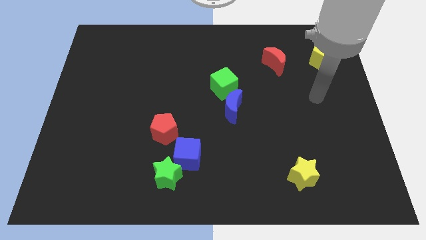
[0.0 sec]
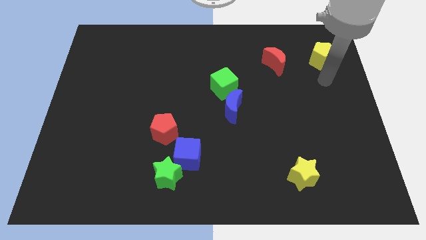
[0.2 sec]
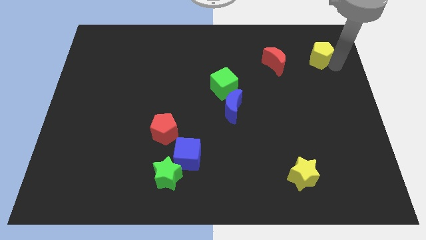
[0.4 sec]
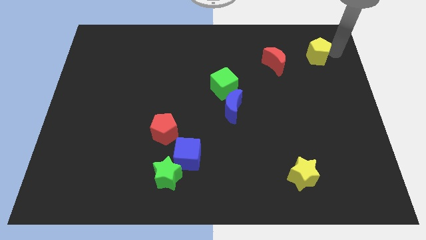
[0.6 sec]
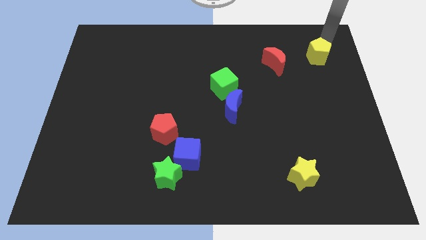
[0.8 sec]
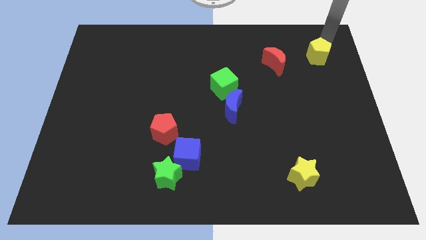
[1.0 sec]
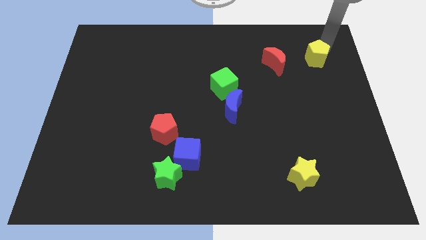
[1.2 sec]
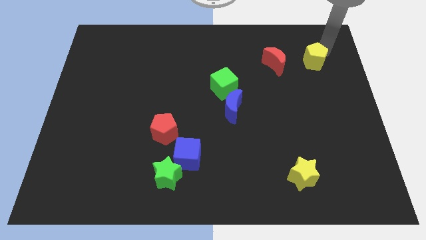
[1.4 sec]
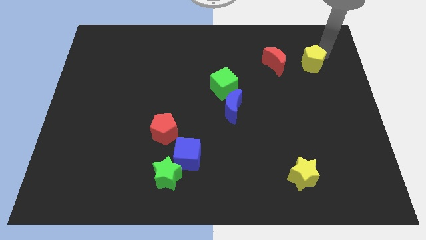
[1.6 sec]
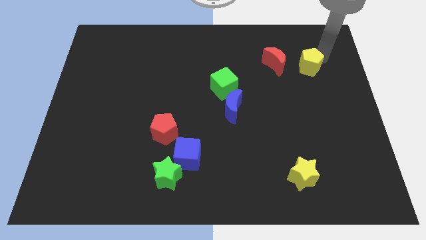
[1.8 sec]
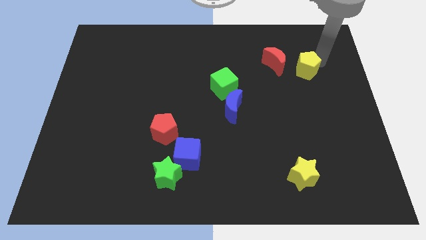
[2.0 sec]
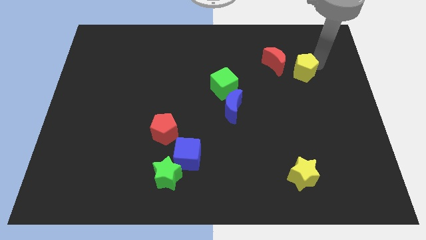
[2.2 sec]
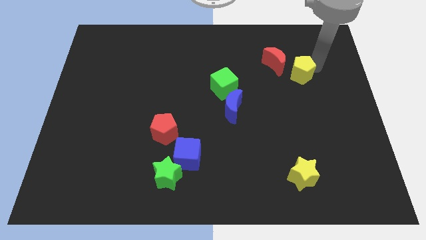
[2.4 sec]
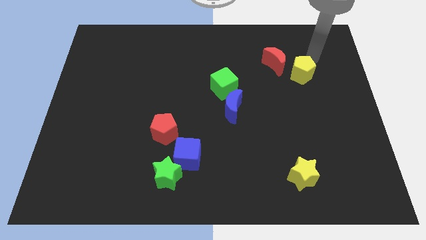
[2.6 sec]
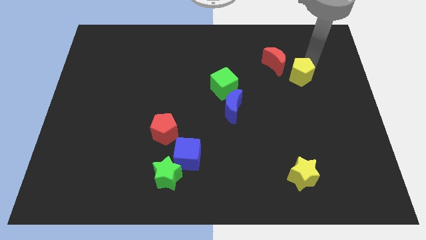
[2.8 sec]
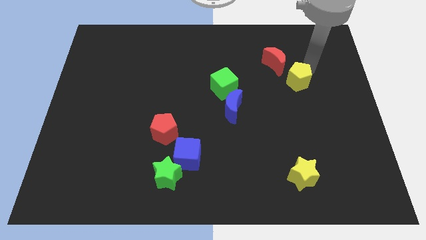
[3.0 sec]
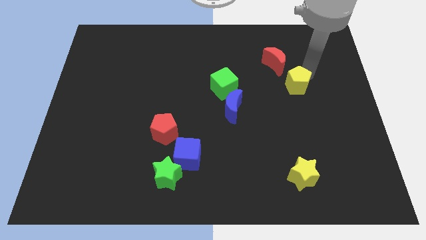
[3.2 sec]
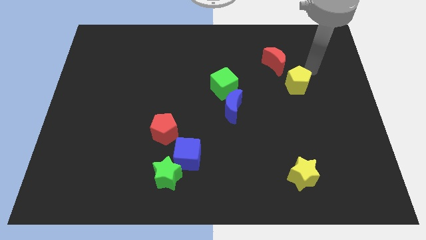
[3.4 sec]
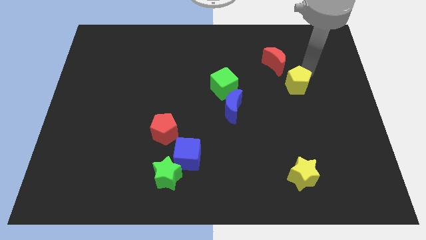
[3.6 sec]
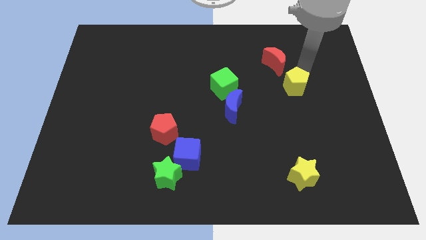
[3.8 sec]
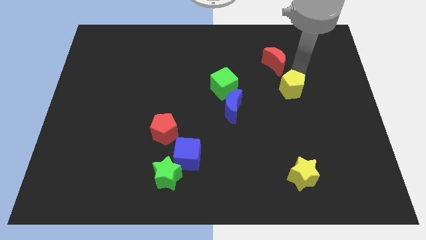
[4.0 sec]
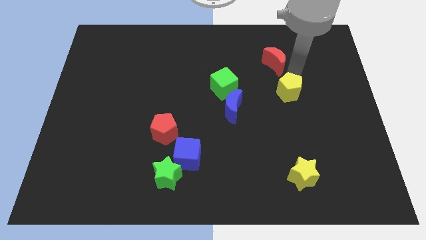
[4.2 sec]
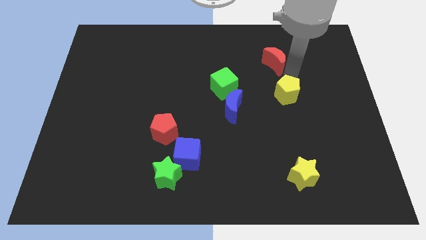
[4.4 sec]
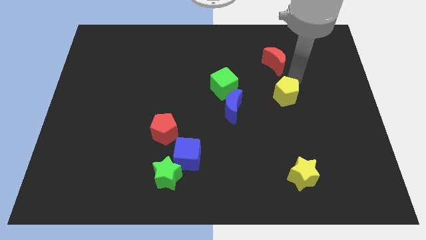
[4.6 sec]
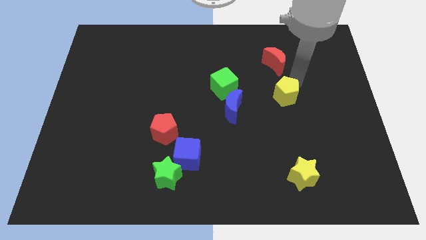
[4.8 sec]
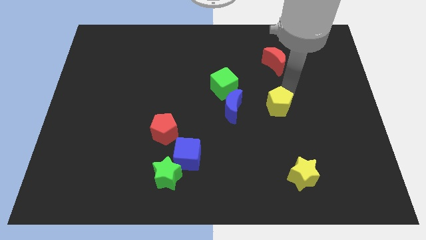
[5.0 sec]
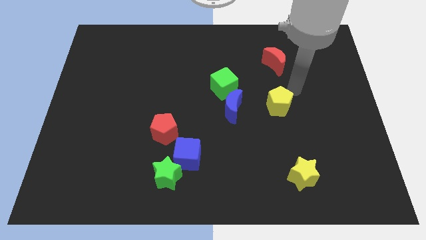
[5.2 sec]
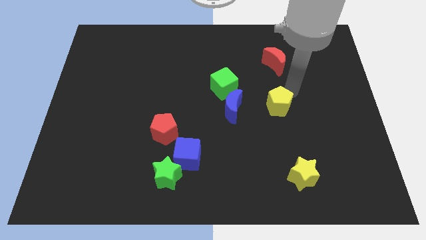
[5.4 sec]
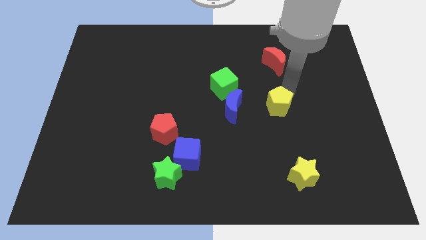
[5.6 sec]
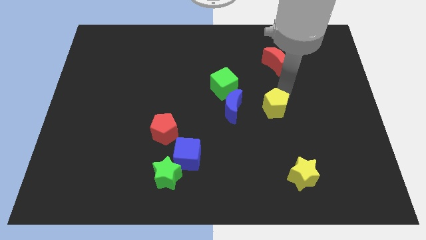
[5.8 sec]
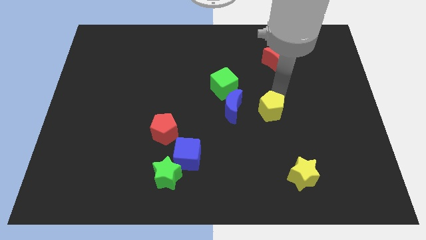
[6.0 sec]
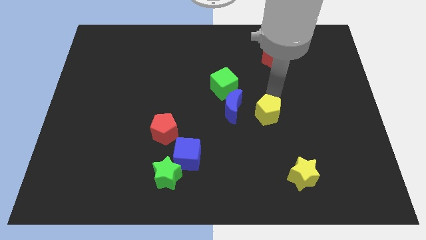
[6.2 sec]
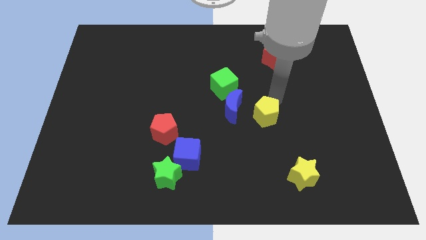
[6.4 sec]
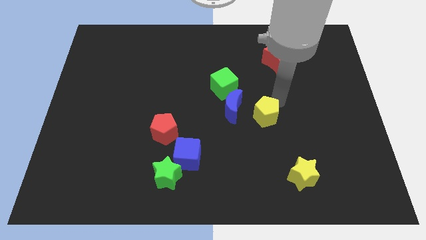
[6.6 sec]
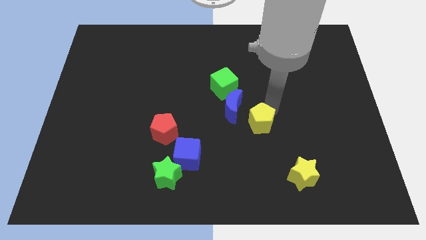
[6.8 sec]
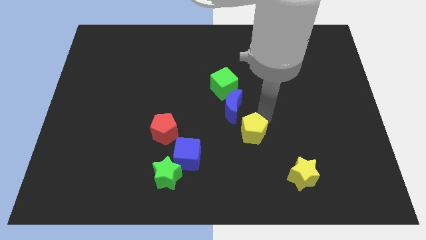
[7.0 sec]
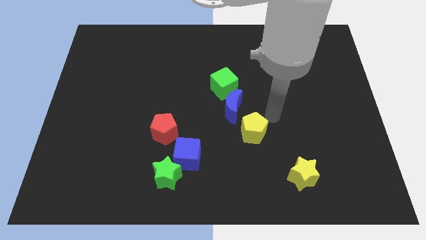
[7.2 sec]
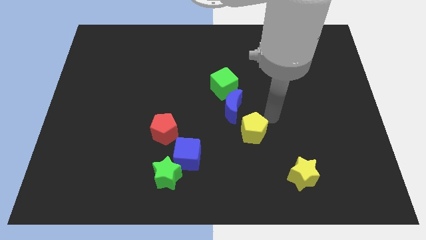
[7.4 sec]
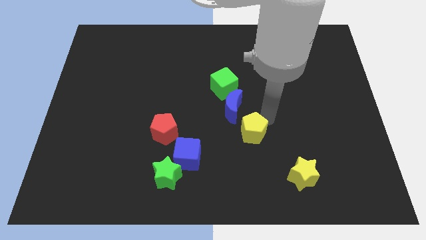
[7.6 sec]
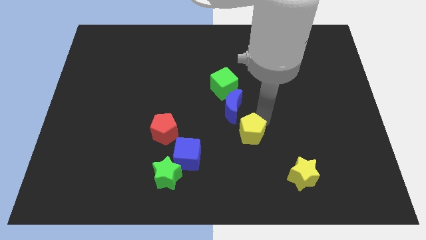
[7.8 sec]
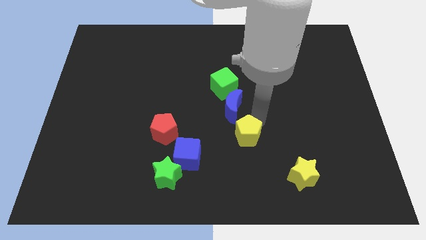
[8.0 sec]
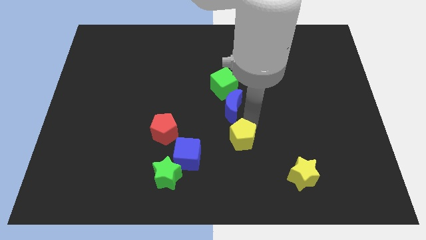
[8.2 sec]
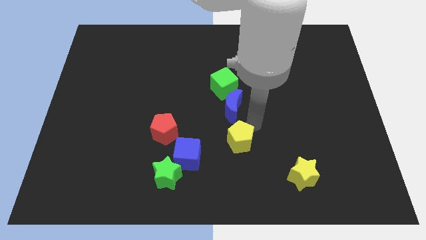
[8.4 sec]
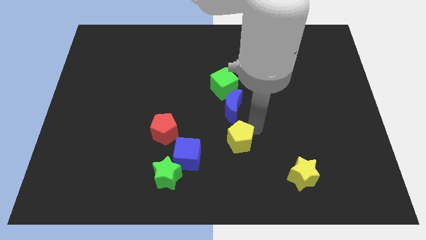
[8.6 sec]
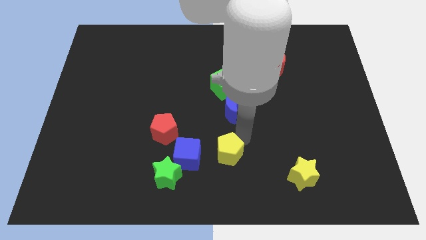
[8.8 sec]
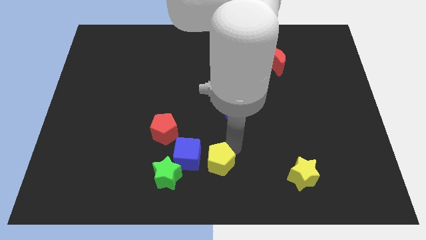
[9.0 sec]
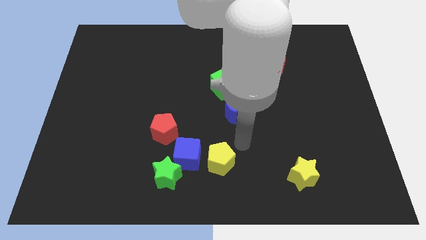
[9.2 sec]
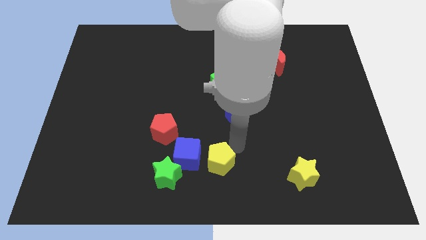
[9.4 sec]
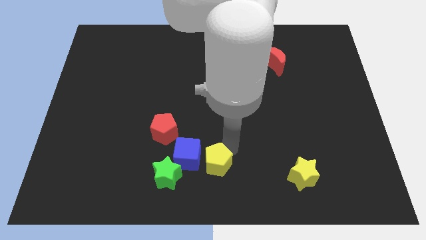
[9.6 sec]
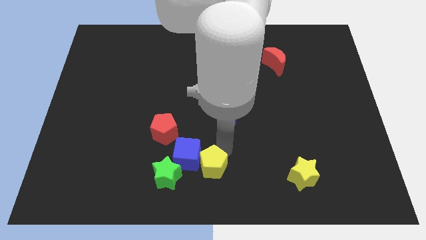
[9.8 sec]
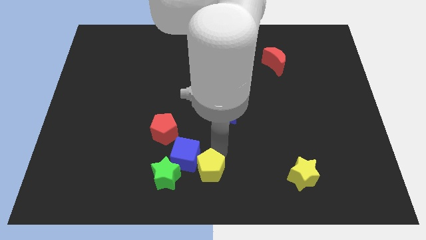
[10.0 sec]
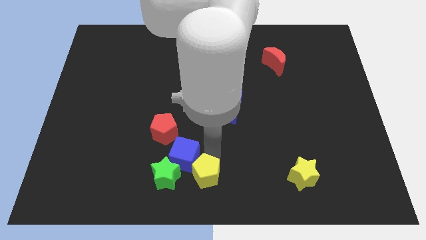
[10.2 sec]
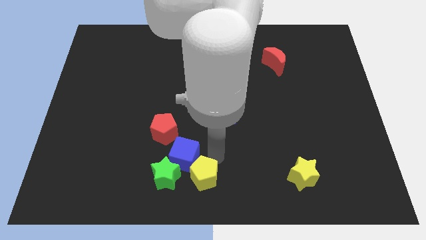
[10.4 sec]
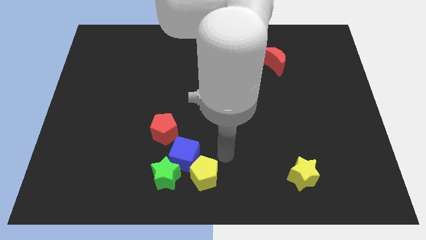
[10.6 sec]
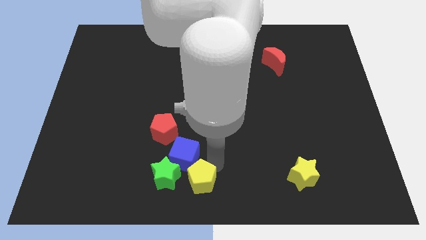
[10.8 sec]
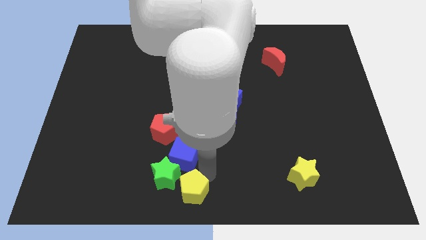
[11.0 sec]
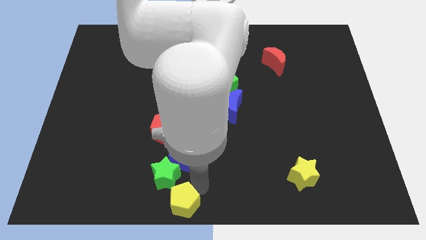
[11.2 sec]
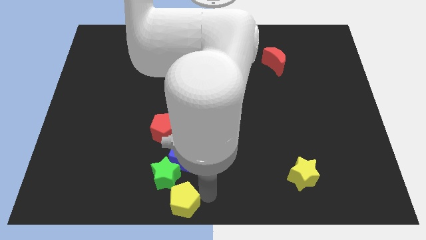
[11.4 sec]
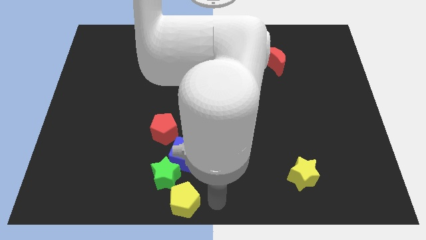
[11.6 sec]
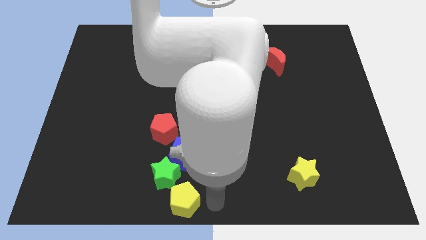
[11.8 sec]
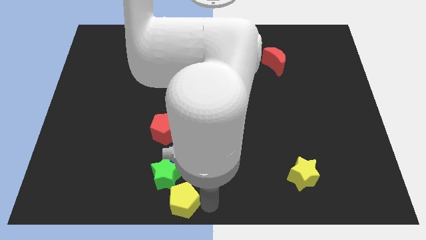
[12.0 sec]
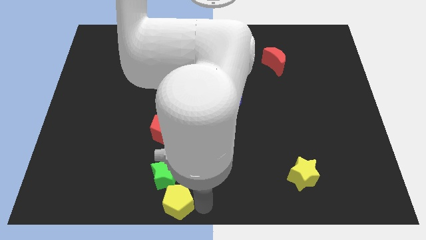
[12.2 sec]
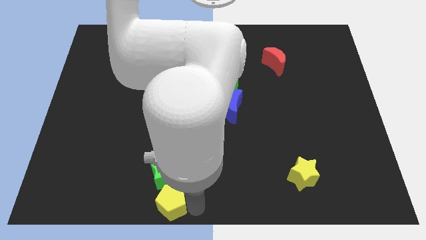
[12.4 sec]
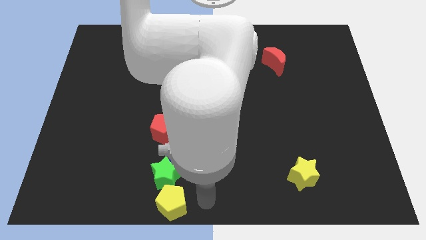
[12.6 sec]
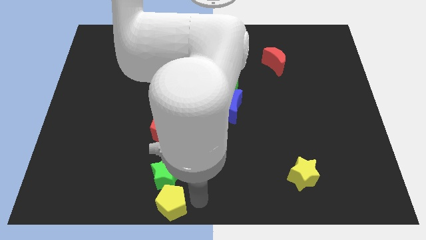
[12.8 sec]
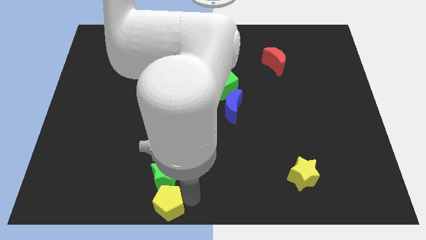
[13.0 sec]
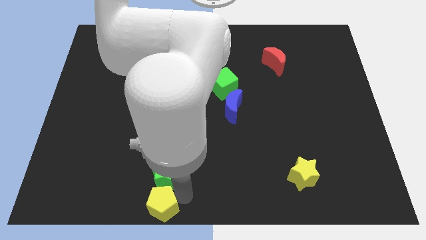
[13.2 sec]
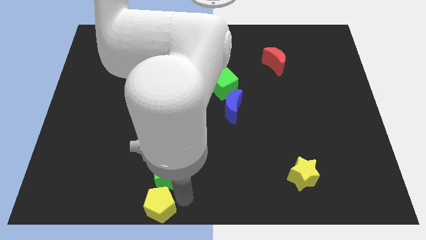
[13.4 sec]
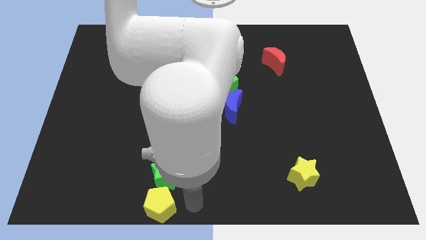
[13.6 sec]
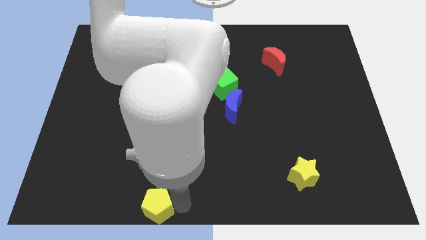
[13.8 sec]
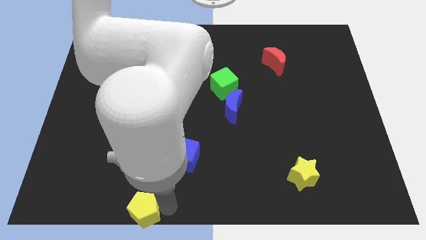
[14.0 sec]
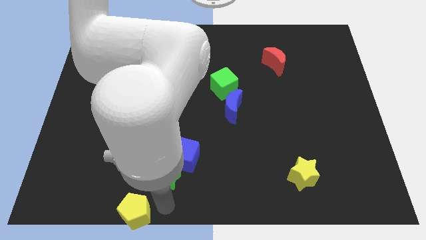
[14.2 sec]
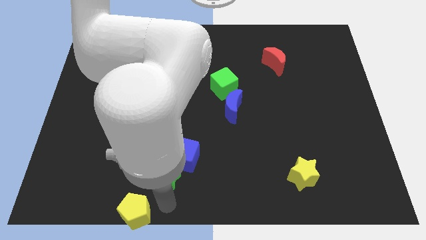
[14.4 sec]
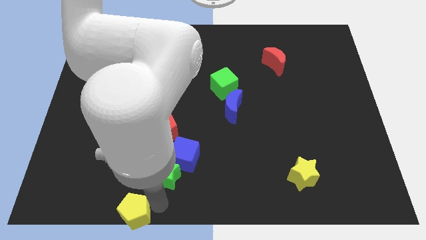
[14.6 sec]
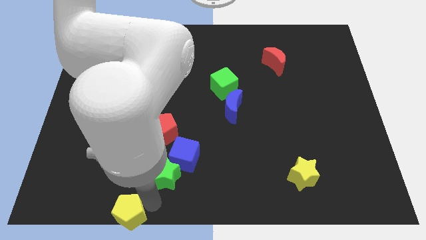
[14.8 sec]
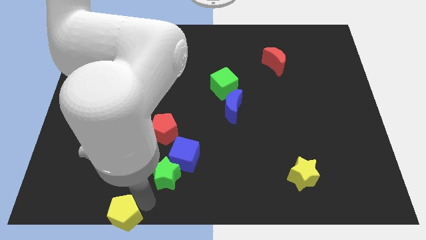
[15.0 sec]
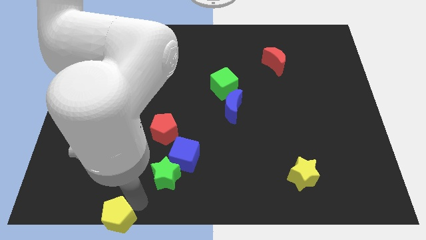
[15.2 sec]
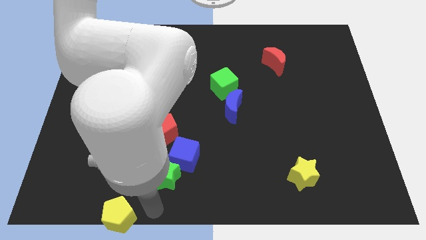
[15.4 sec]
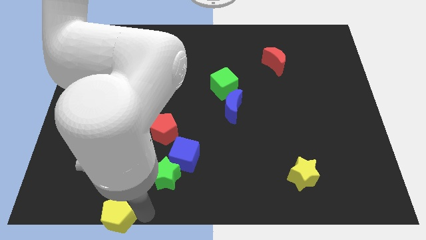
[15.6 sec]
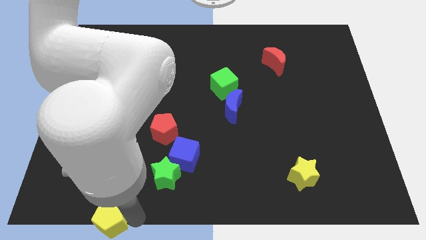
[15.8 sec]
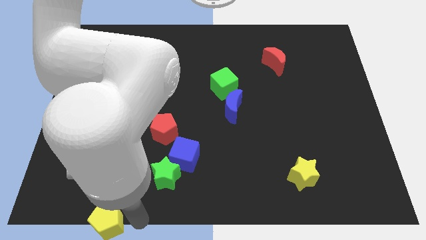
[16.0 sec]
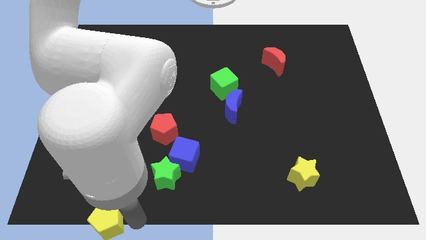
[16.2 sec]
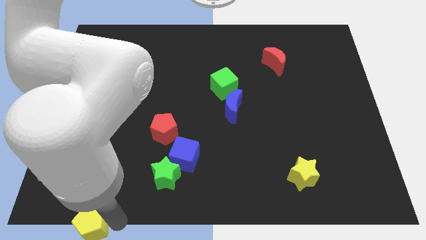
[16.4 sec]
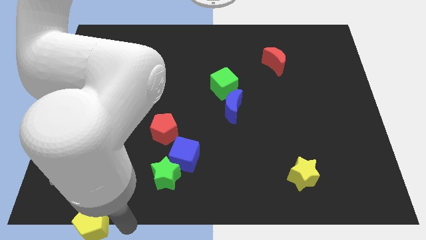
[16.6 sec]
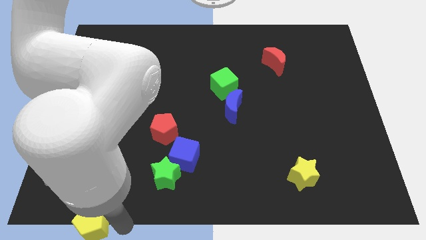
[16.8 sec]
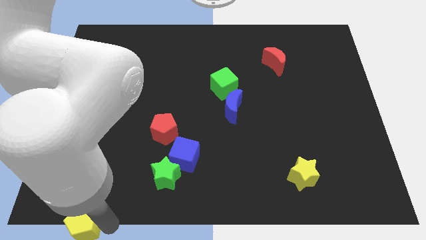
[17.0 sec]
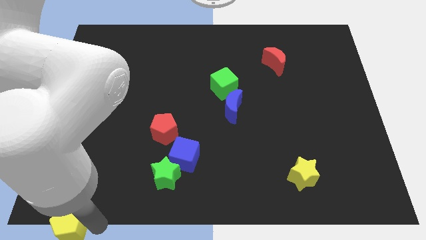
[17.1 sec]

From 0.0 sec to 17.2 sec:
move the yellow pentagon to the bottom left of the board
